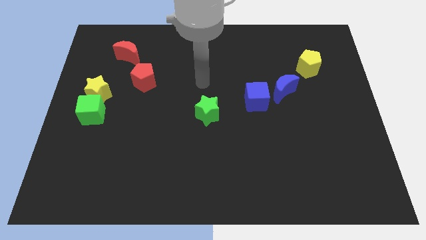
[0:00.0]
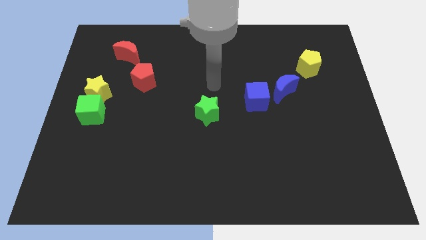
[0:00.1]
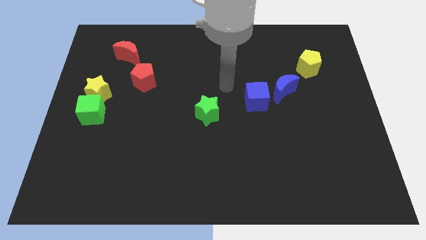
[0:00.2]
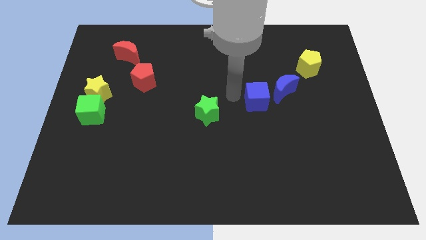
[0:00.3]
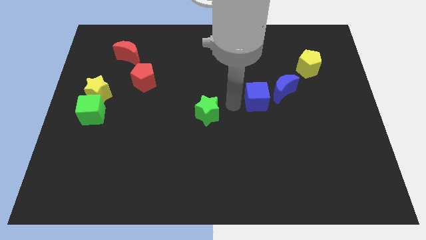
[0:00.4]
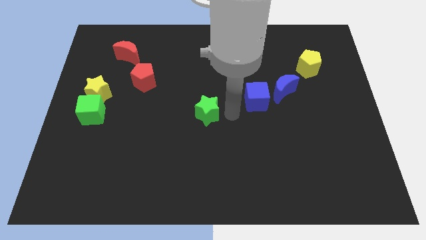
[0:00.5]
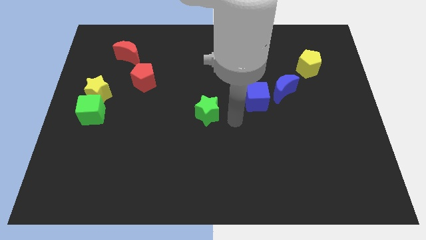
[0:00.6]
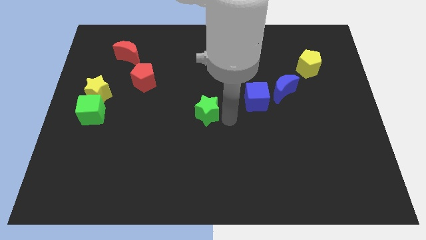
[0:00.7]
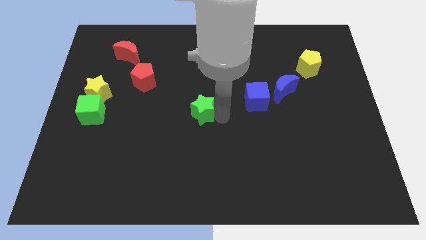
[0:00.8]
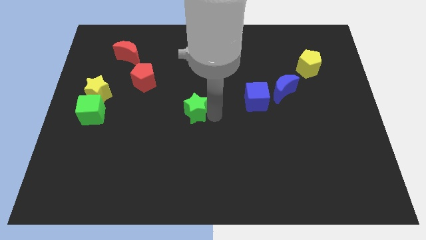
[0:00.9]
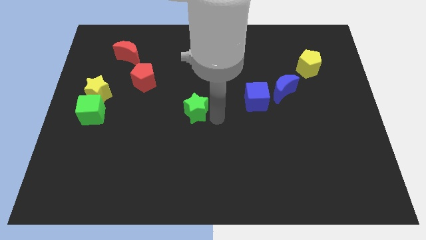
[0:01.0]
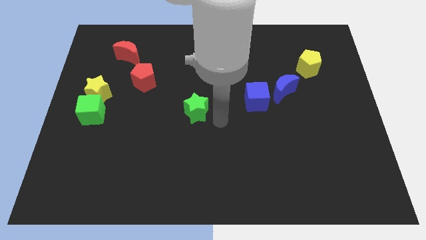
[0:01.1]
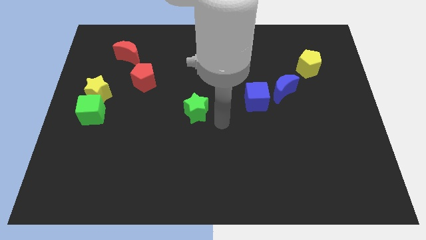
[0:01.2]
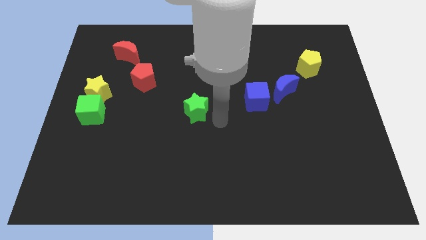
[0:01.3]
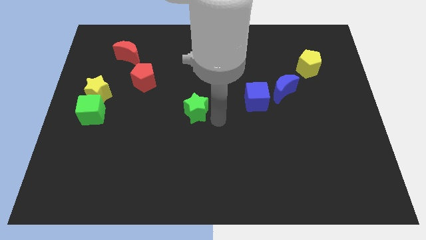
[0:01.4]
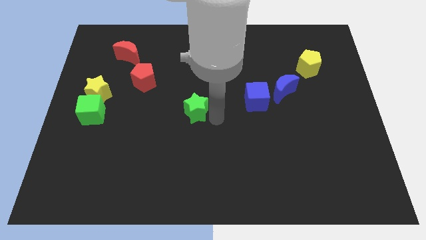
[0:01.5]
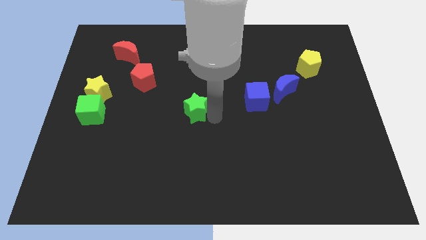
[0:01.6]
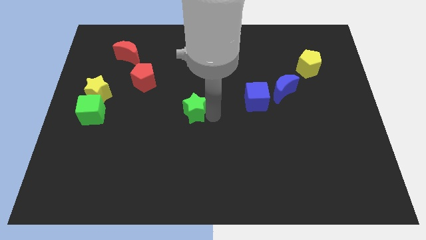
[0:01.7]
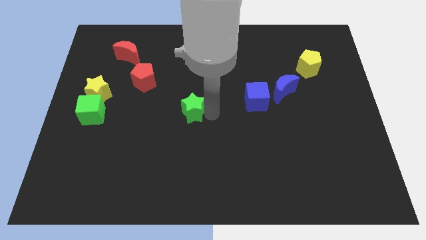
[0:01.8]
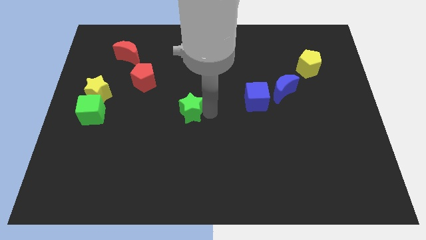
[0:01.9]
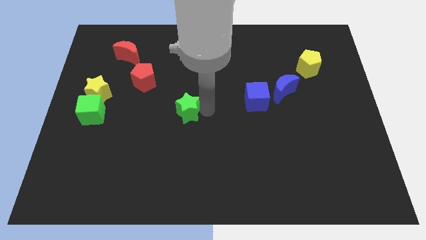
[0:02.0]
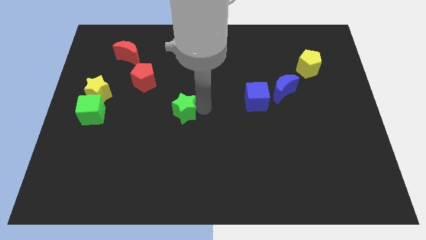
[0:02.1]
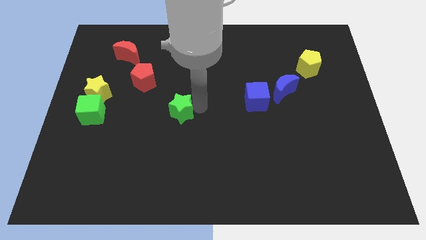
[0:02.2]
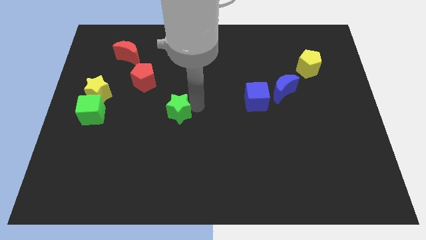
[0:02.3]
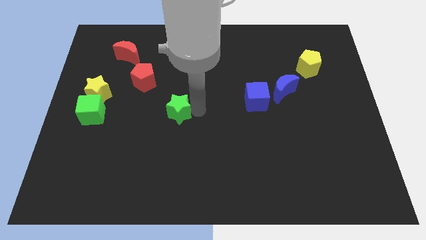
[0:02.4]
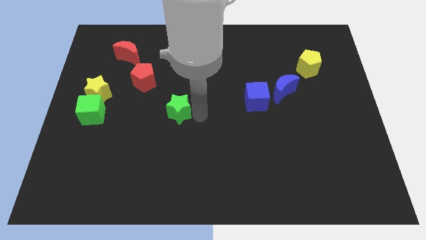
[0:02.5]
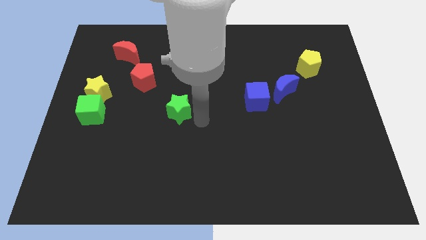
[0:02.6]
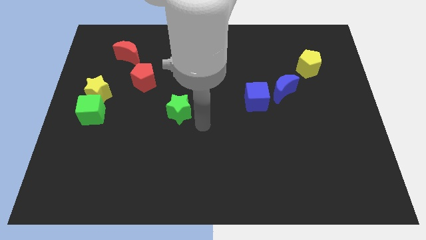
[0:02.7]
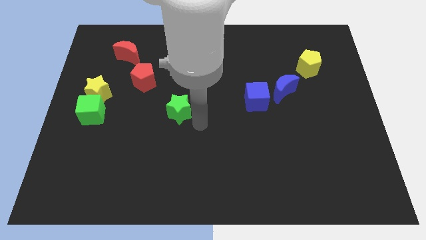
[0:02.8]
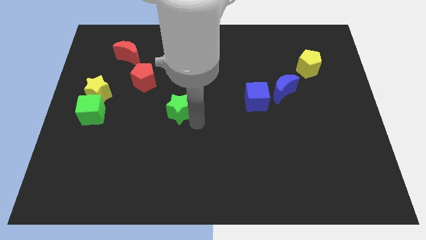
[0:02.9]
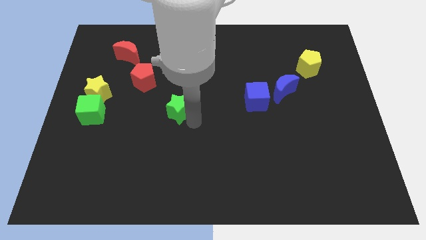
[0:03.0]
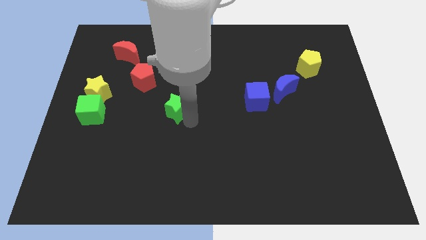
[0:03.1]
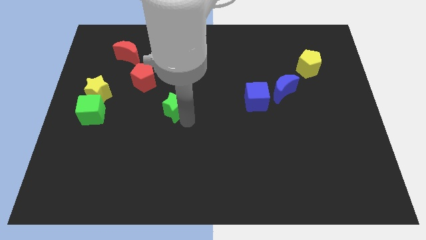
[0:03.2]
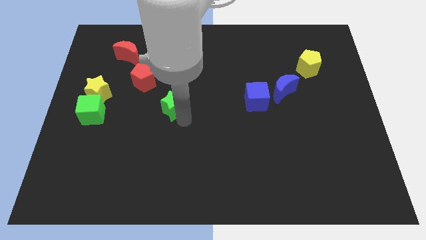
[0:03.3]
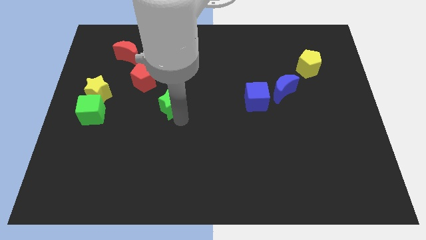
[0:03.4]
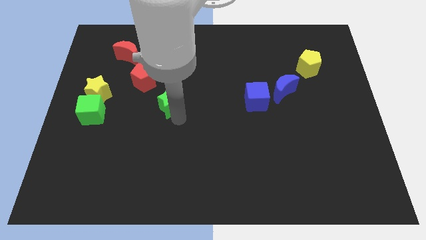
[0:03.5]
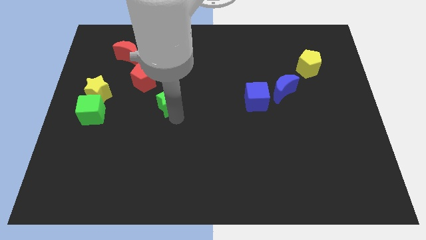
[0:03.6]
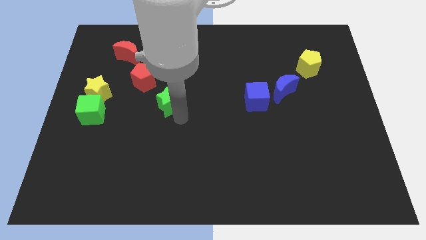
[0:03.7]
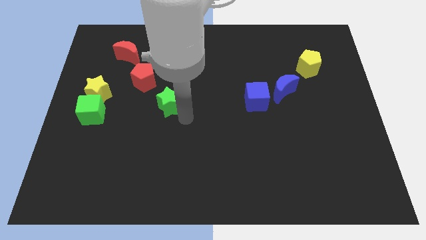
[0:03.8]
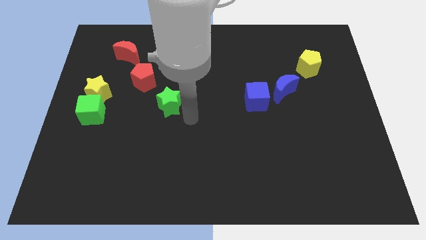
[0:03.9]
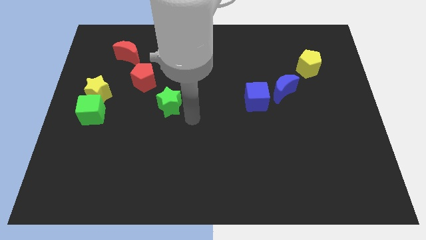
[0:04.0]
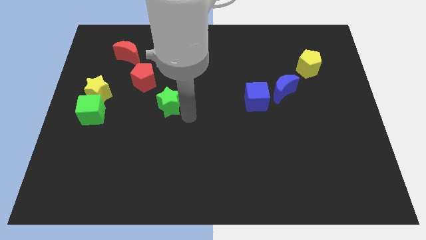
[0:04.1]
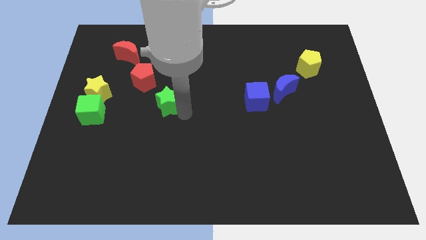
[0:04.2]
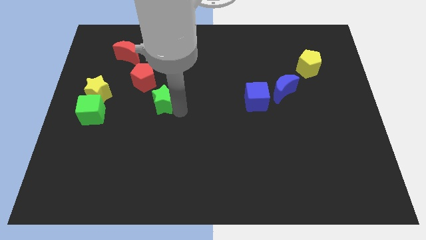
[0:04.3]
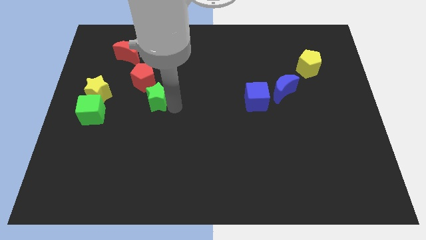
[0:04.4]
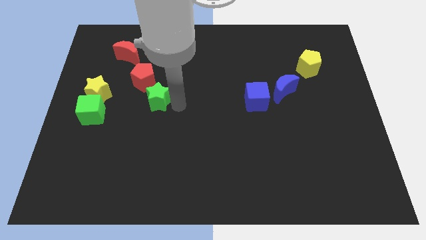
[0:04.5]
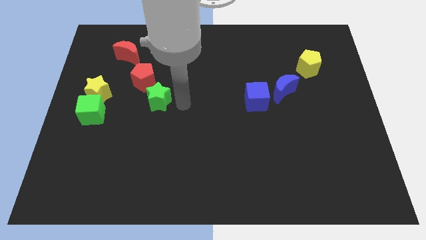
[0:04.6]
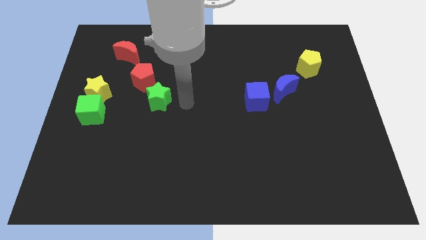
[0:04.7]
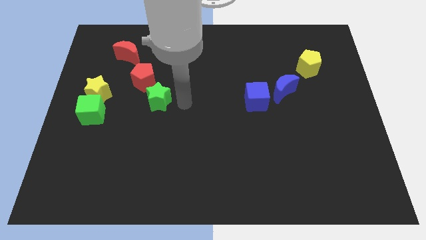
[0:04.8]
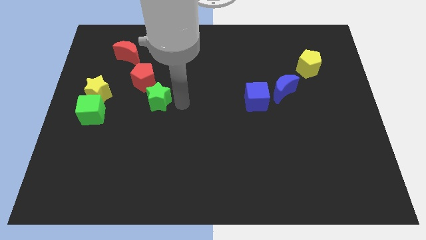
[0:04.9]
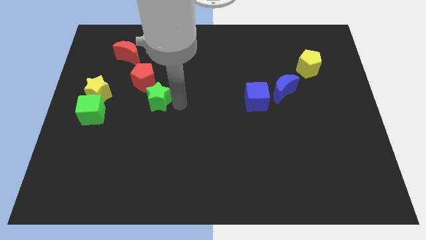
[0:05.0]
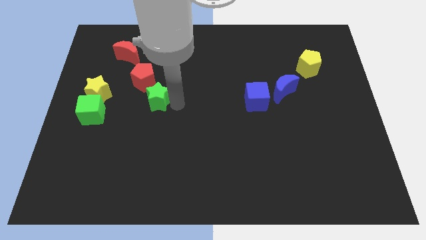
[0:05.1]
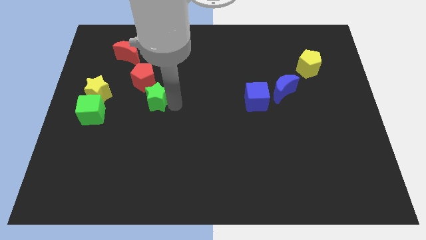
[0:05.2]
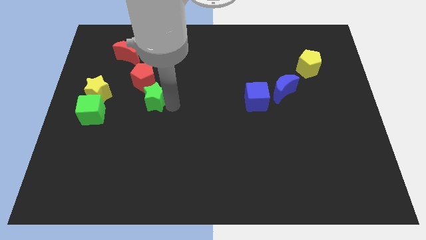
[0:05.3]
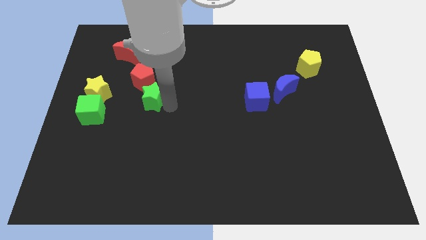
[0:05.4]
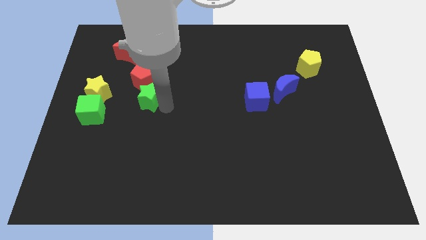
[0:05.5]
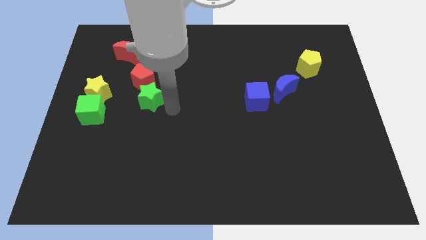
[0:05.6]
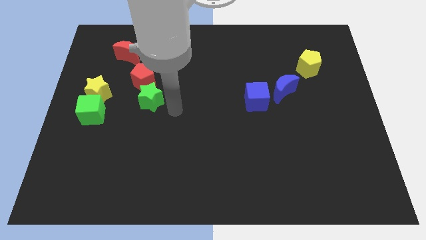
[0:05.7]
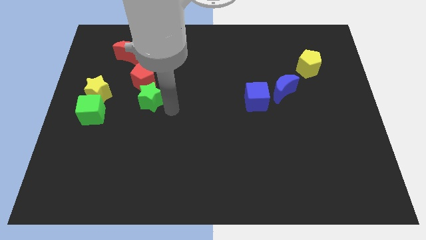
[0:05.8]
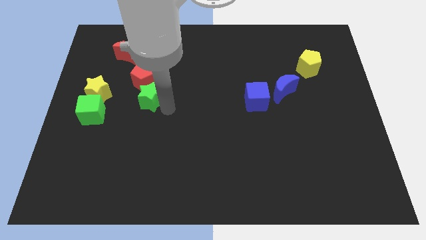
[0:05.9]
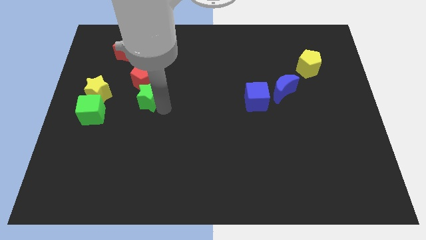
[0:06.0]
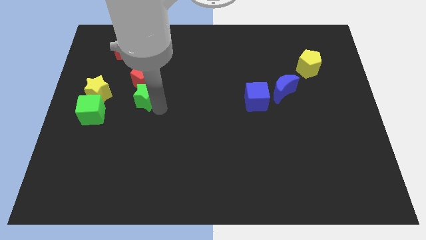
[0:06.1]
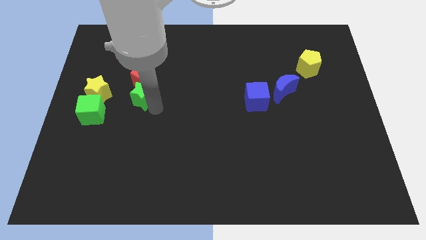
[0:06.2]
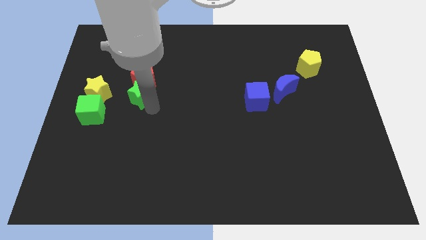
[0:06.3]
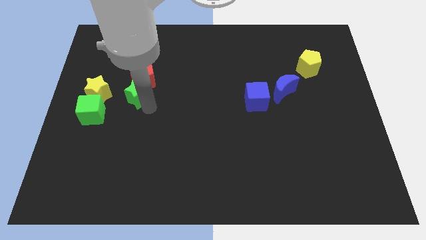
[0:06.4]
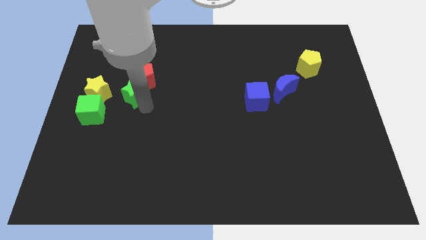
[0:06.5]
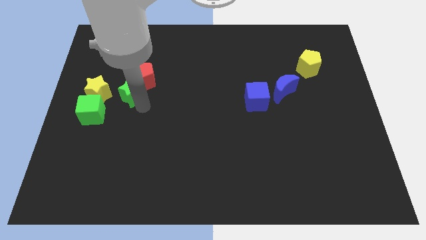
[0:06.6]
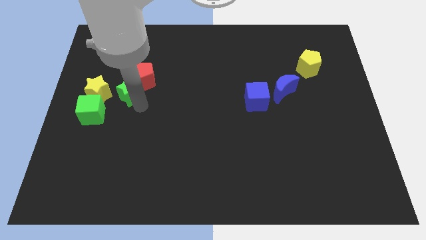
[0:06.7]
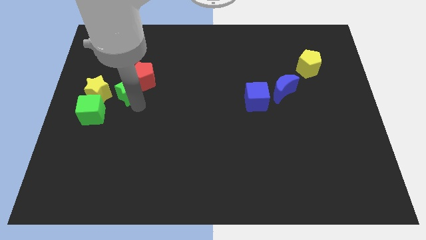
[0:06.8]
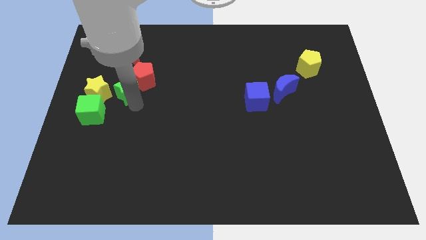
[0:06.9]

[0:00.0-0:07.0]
push the green star left of the red pentagon
